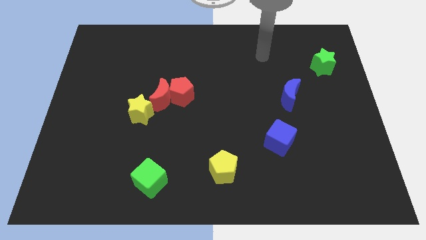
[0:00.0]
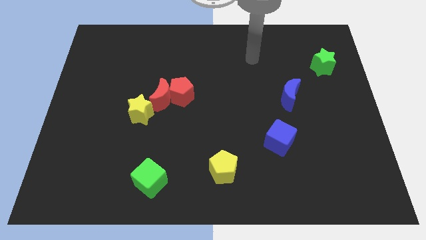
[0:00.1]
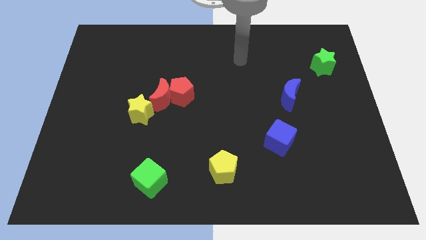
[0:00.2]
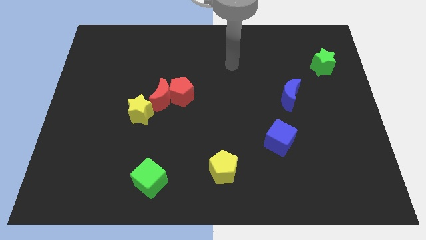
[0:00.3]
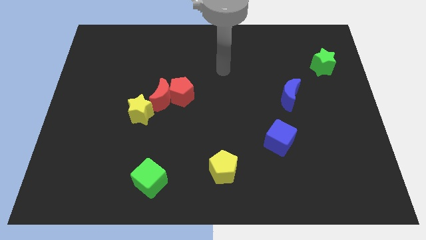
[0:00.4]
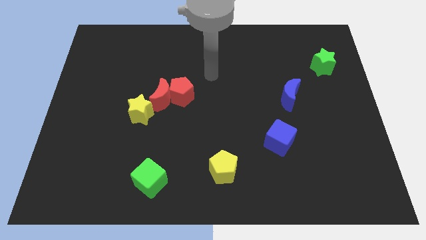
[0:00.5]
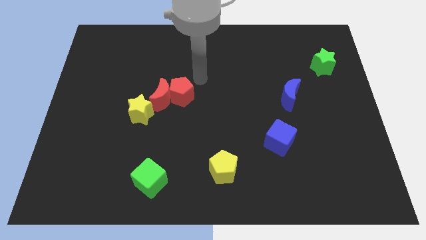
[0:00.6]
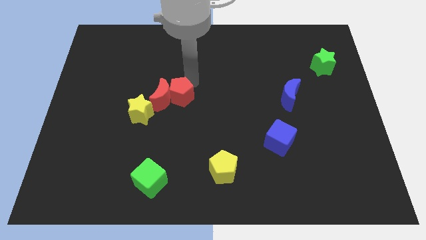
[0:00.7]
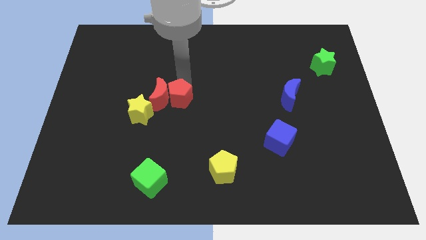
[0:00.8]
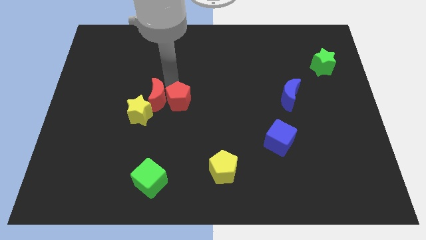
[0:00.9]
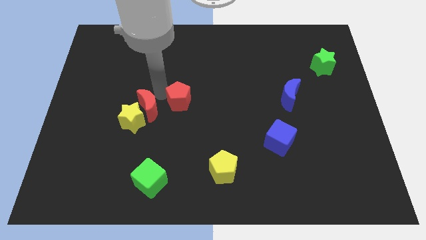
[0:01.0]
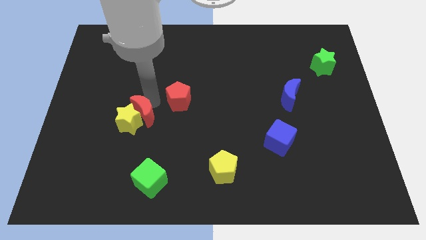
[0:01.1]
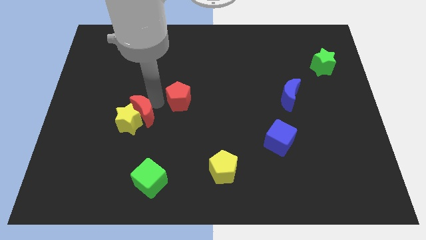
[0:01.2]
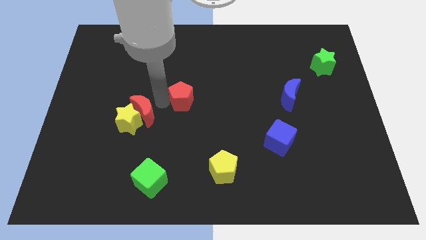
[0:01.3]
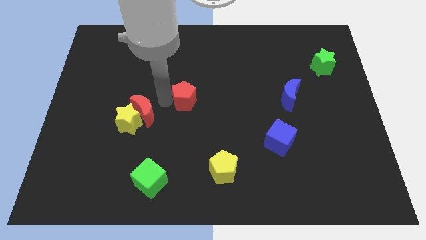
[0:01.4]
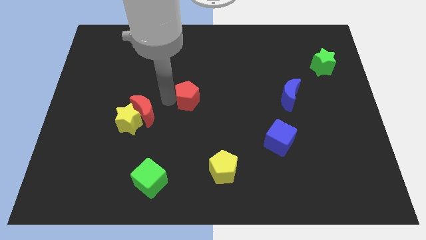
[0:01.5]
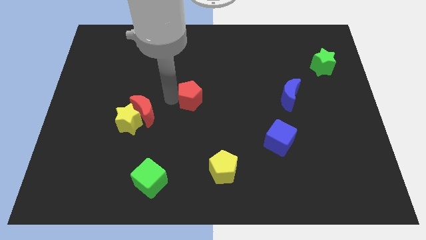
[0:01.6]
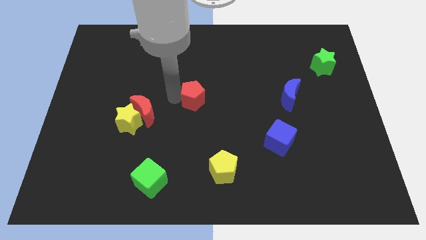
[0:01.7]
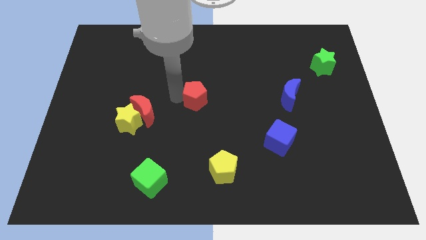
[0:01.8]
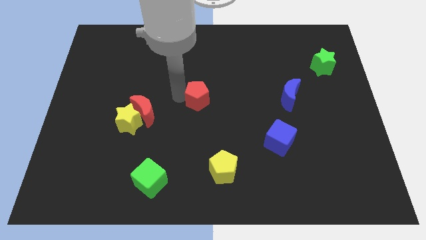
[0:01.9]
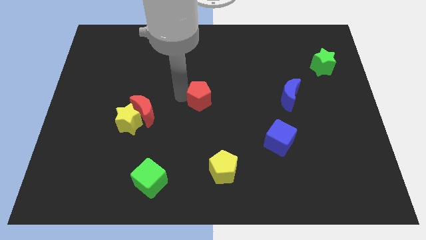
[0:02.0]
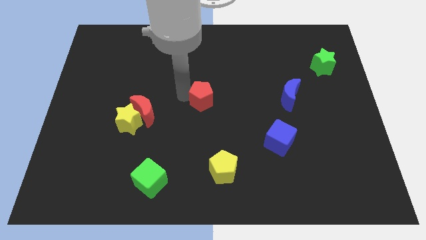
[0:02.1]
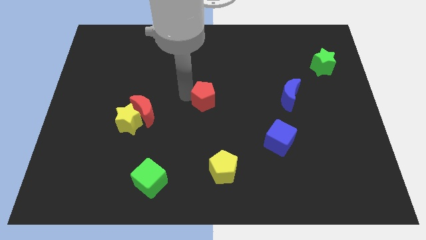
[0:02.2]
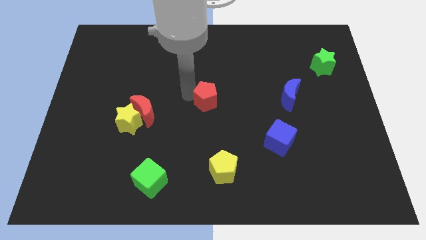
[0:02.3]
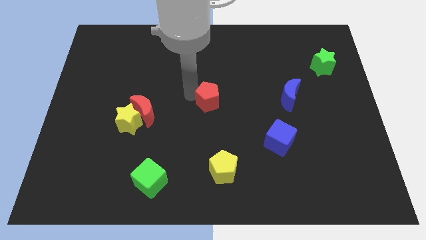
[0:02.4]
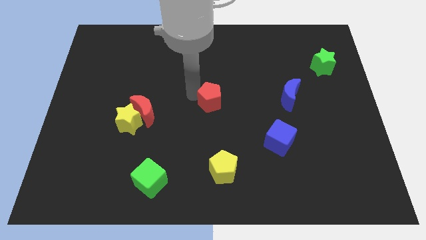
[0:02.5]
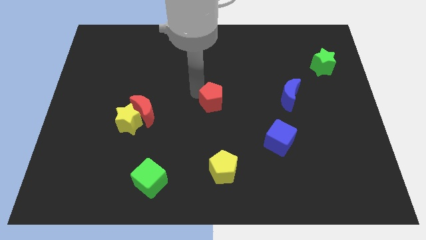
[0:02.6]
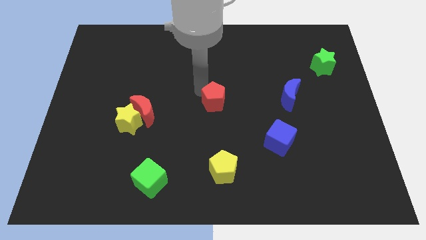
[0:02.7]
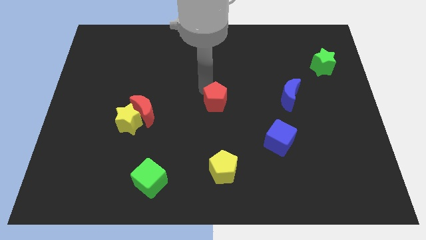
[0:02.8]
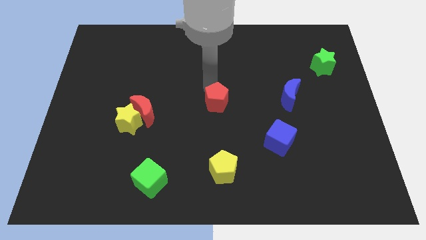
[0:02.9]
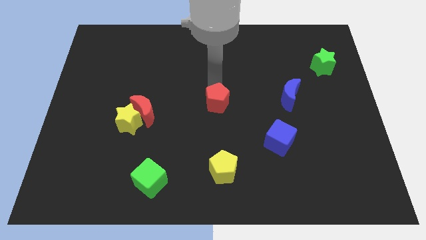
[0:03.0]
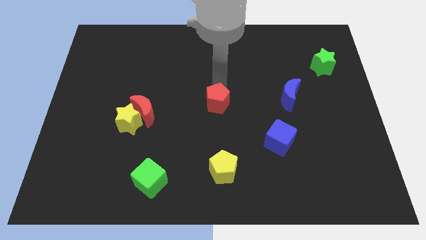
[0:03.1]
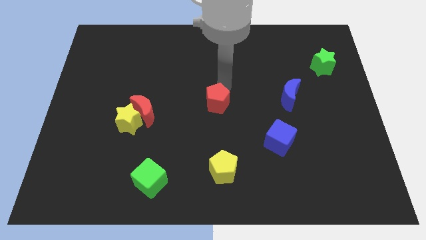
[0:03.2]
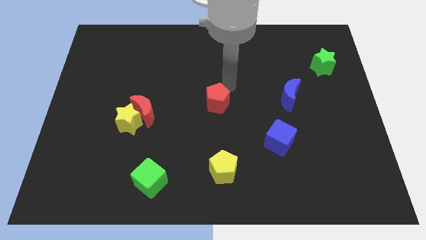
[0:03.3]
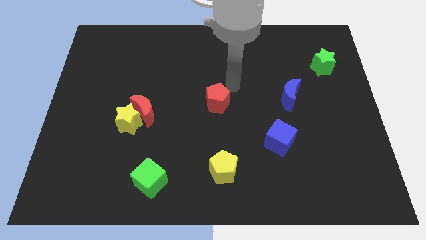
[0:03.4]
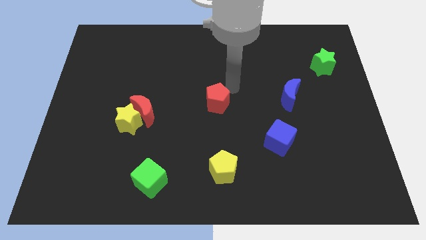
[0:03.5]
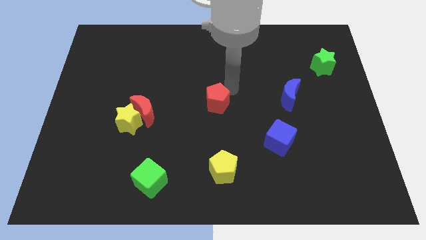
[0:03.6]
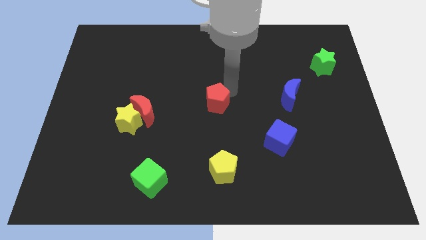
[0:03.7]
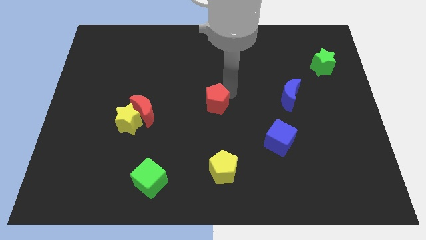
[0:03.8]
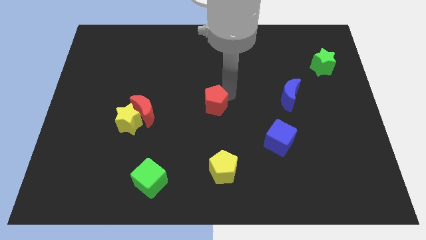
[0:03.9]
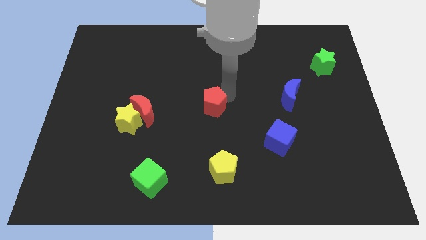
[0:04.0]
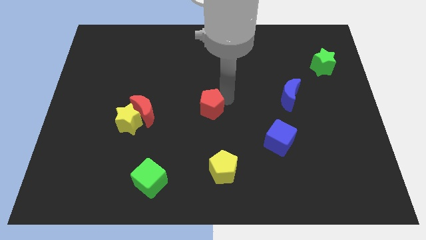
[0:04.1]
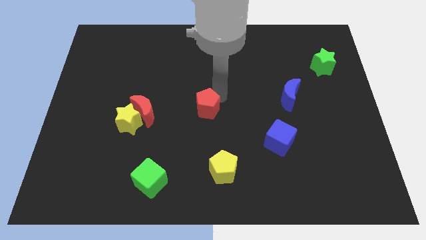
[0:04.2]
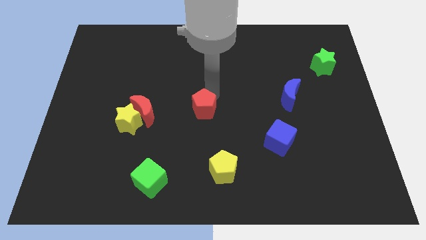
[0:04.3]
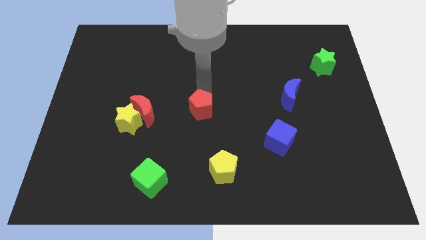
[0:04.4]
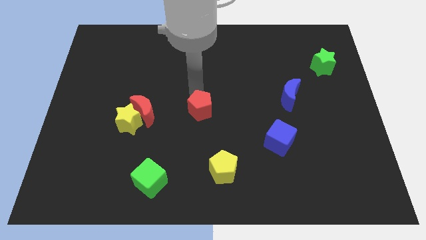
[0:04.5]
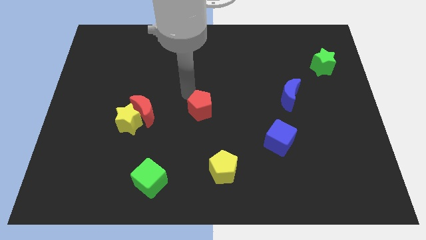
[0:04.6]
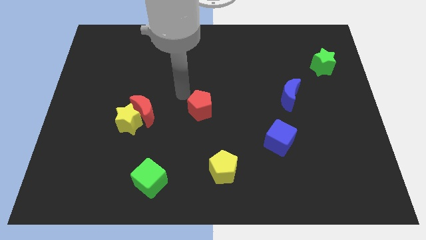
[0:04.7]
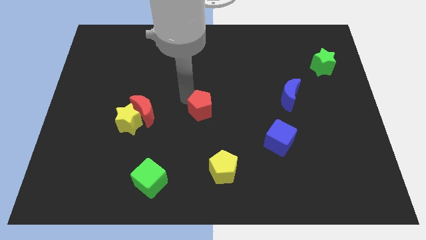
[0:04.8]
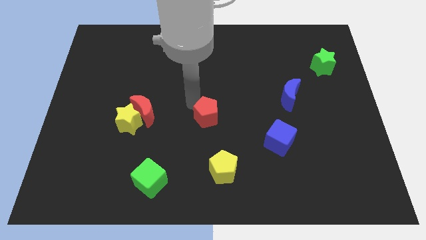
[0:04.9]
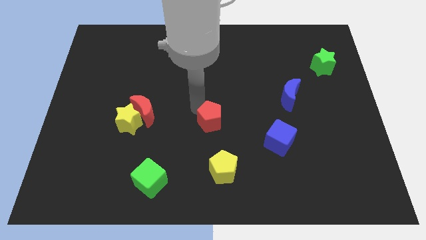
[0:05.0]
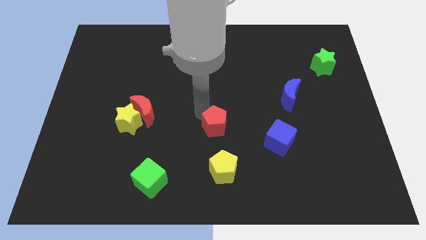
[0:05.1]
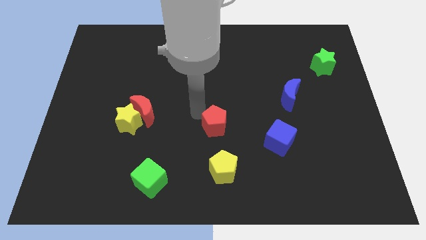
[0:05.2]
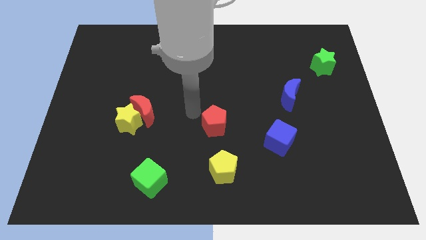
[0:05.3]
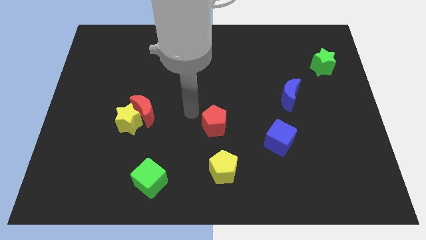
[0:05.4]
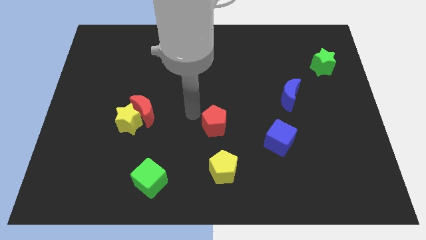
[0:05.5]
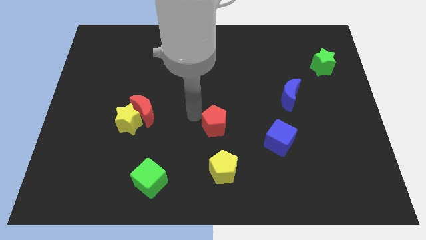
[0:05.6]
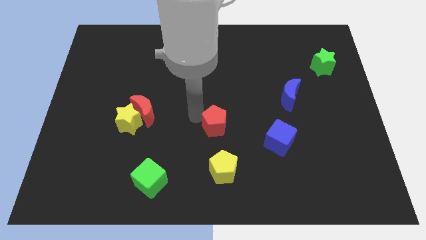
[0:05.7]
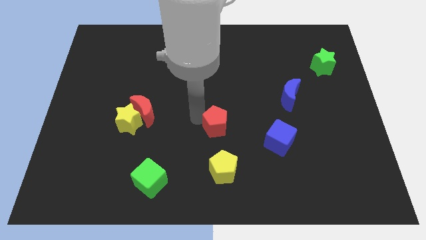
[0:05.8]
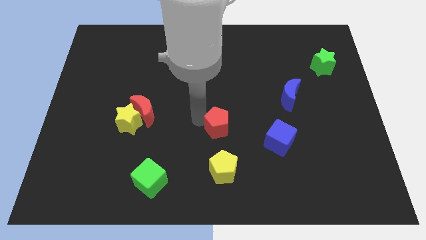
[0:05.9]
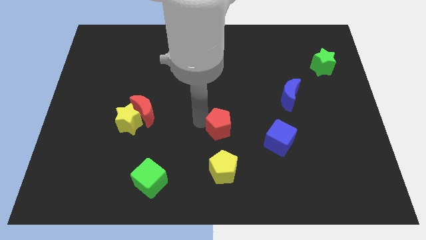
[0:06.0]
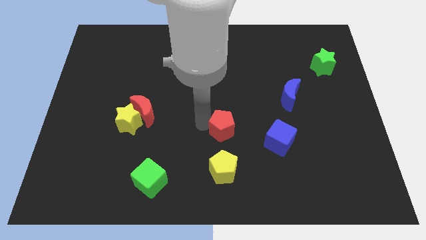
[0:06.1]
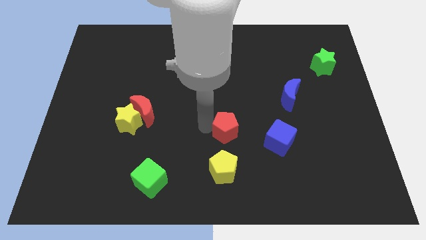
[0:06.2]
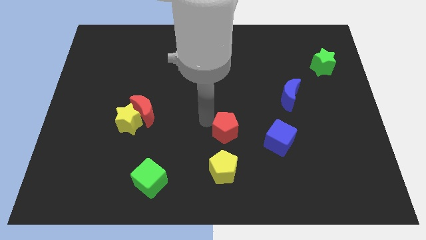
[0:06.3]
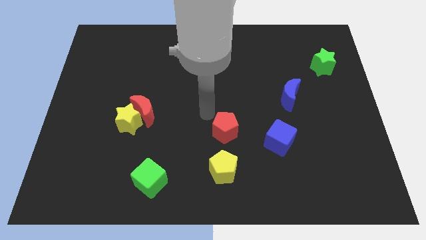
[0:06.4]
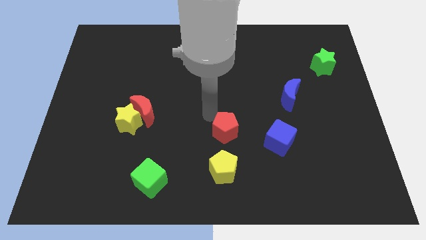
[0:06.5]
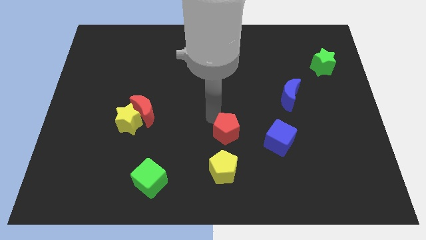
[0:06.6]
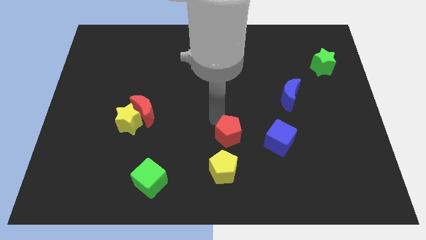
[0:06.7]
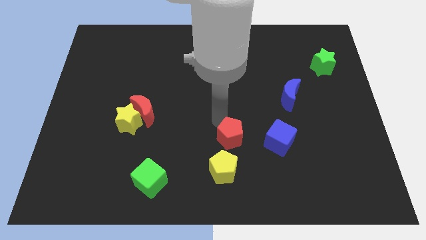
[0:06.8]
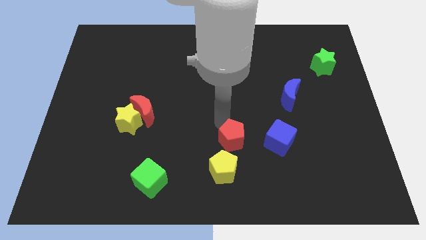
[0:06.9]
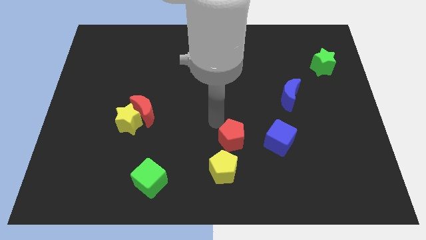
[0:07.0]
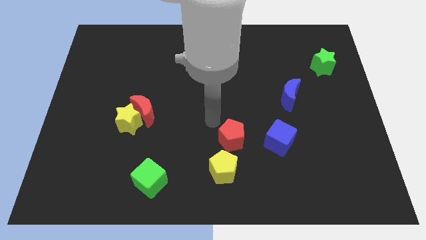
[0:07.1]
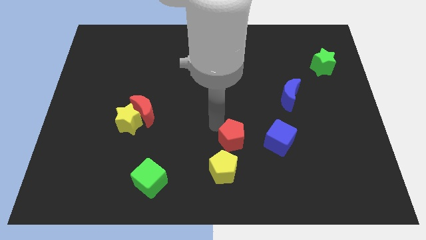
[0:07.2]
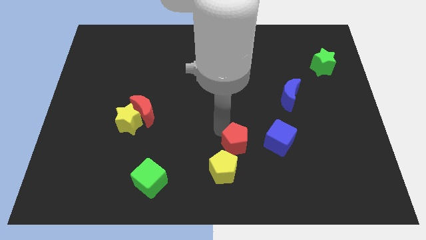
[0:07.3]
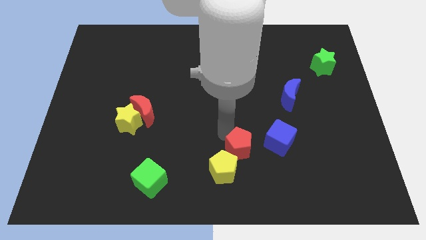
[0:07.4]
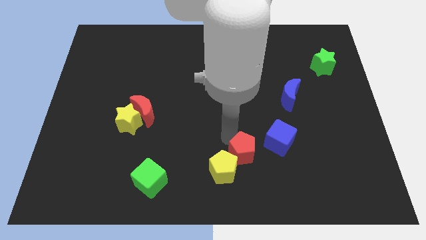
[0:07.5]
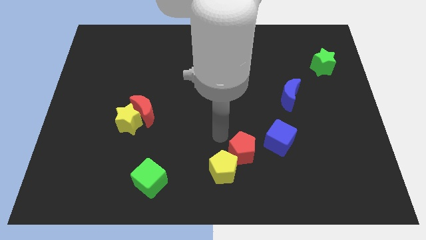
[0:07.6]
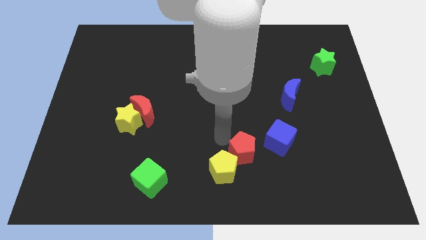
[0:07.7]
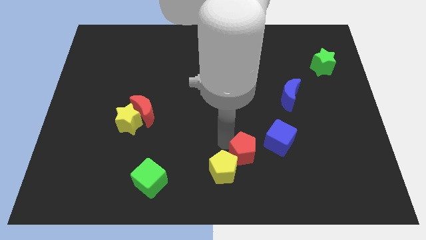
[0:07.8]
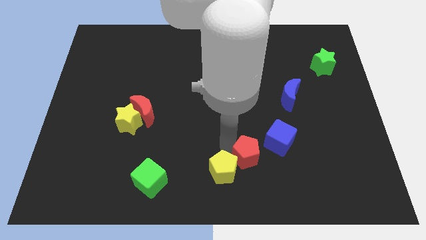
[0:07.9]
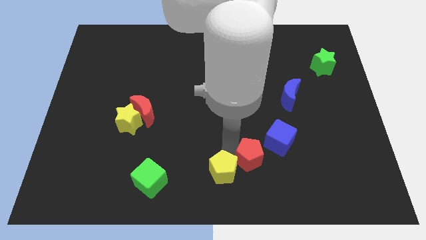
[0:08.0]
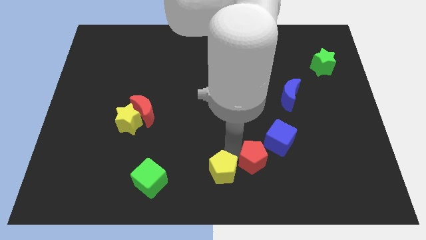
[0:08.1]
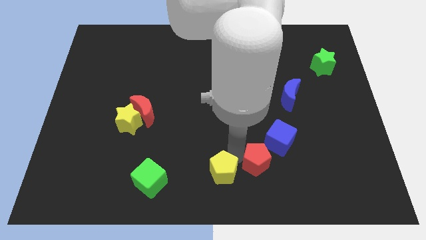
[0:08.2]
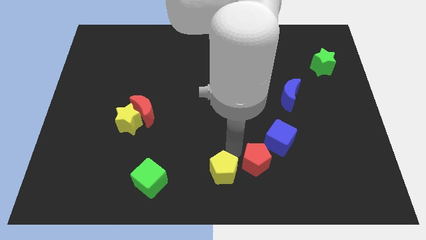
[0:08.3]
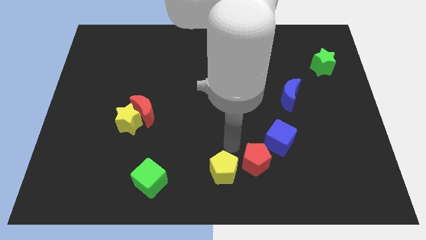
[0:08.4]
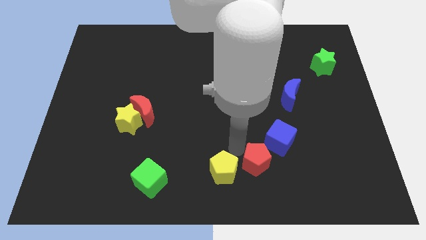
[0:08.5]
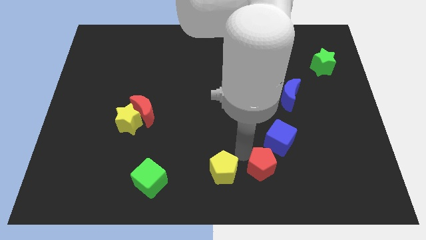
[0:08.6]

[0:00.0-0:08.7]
slide the red pentagon below the blue cube
